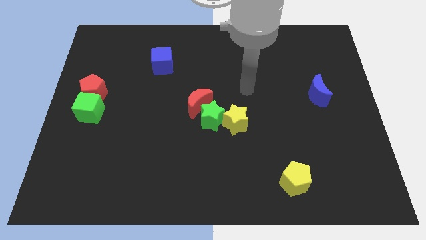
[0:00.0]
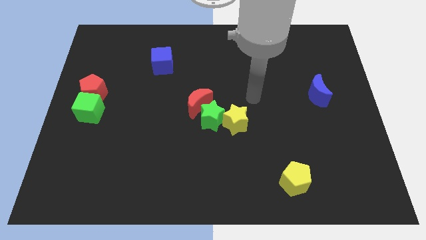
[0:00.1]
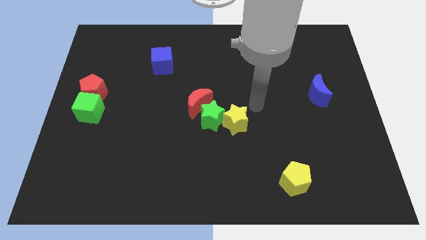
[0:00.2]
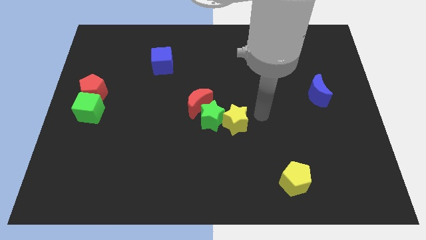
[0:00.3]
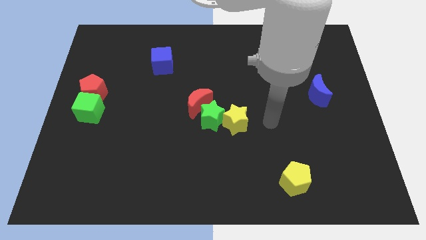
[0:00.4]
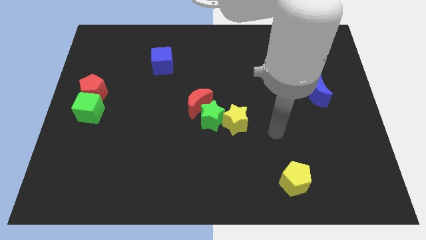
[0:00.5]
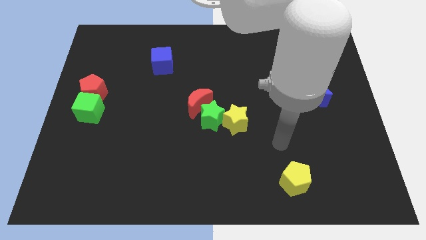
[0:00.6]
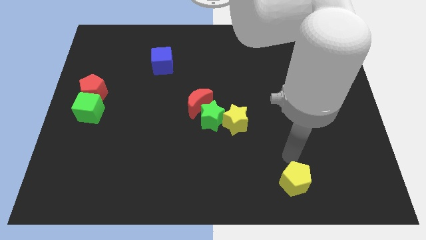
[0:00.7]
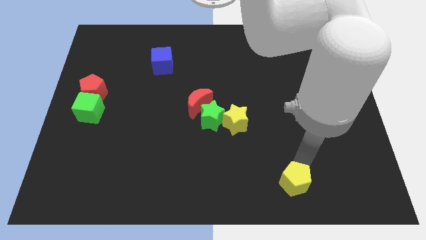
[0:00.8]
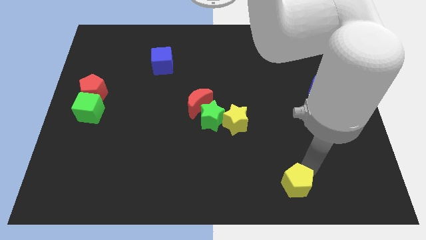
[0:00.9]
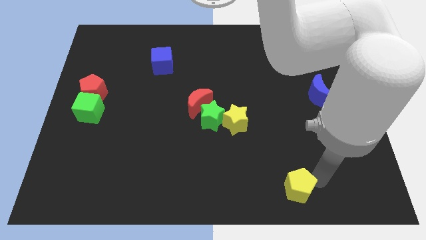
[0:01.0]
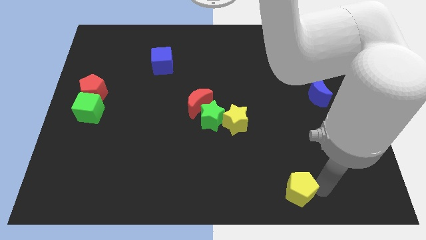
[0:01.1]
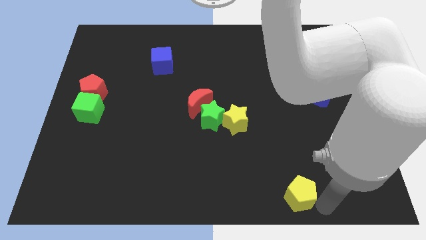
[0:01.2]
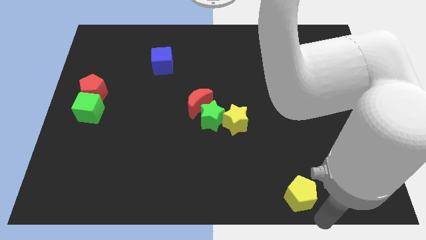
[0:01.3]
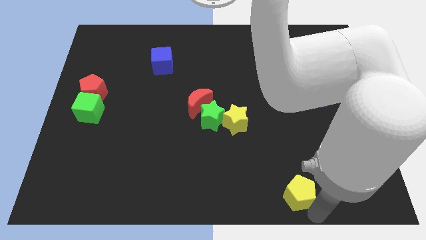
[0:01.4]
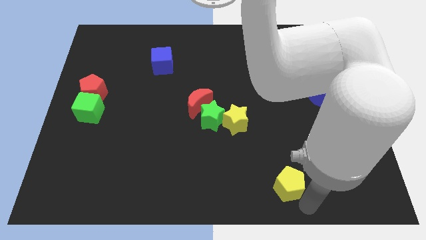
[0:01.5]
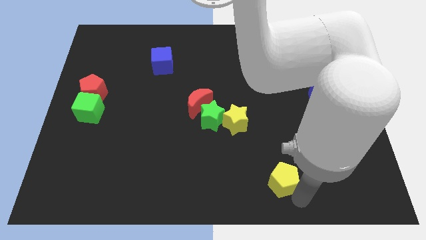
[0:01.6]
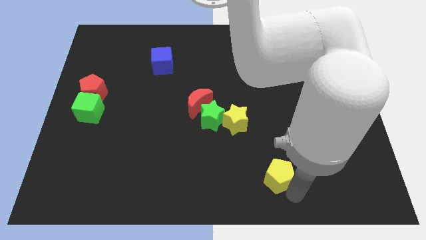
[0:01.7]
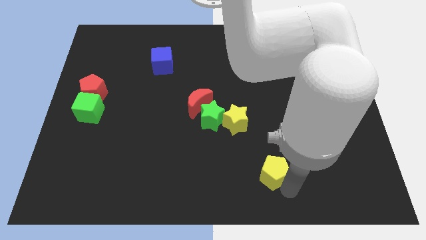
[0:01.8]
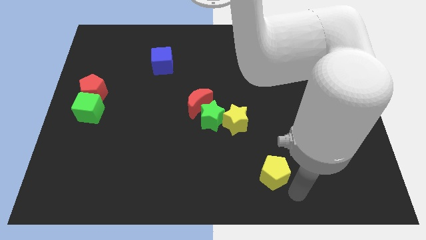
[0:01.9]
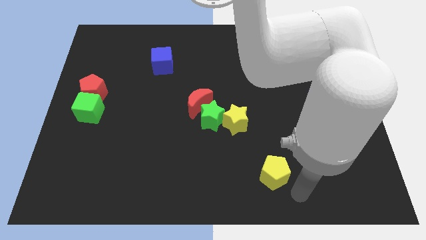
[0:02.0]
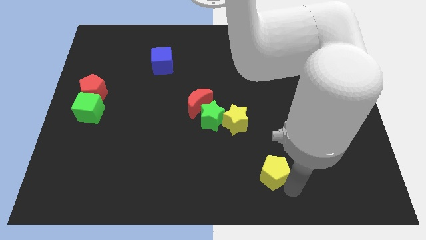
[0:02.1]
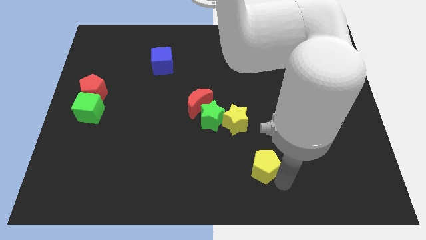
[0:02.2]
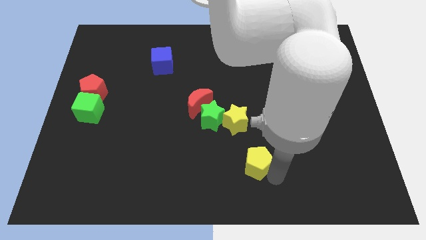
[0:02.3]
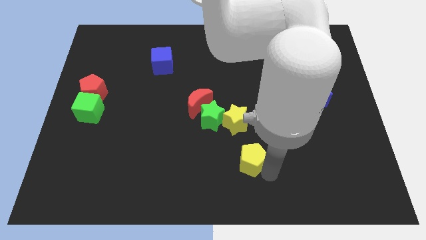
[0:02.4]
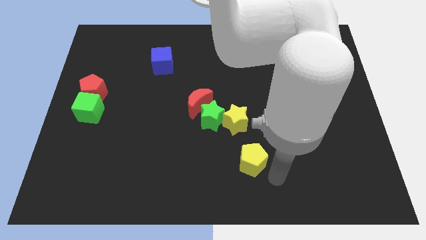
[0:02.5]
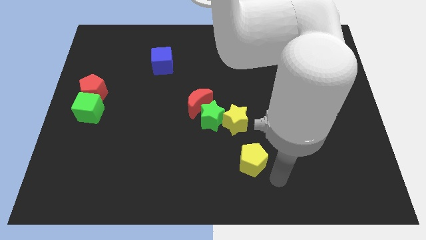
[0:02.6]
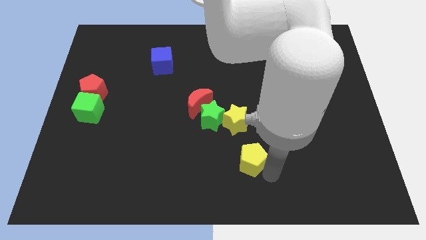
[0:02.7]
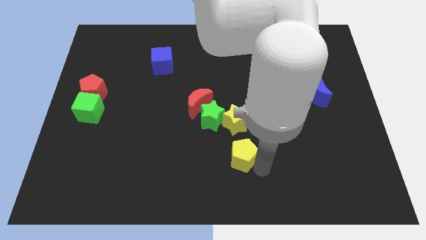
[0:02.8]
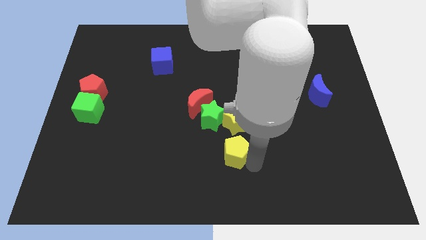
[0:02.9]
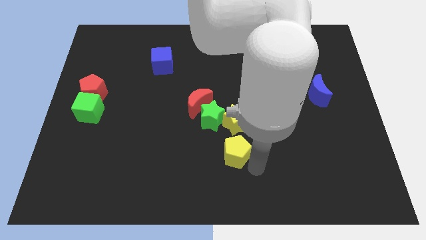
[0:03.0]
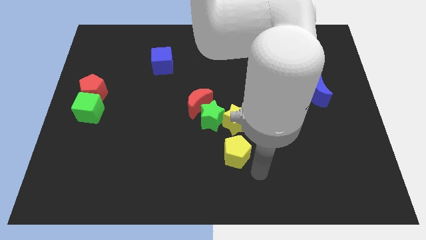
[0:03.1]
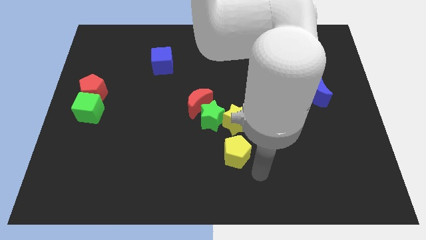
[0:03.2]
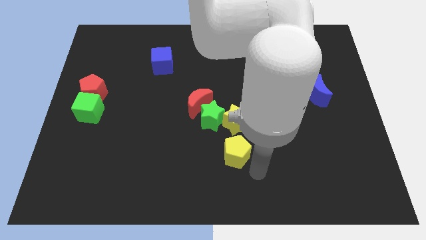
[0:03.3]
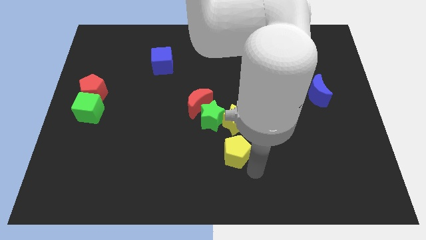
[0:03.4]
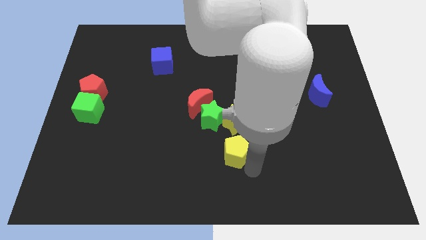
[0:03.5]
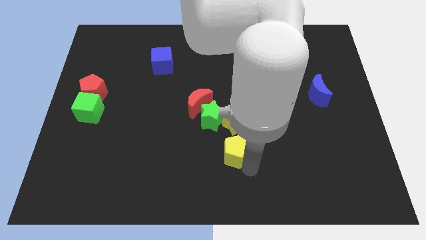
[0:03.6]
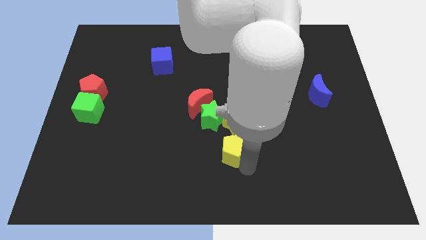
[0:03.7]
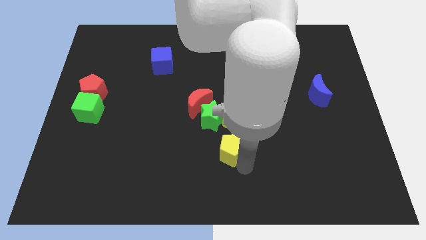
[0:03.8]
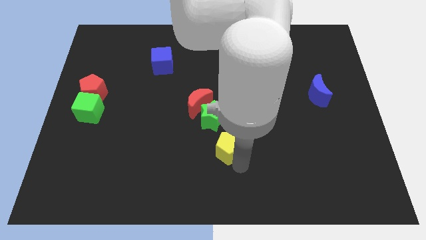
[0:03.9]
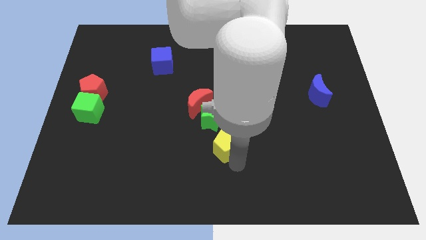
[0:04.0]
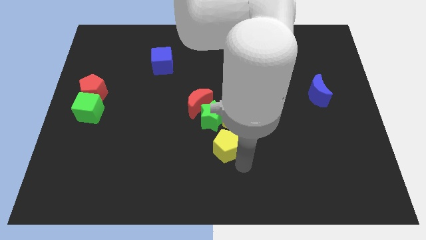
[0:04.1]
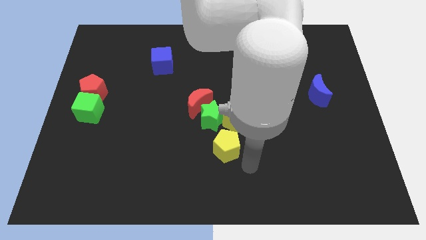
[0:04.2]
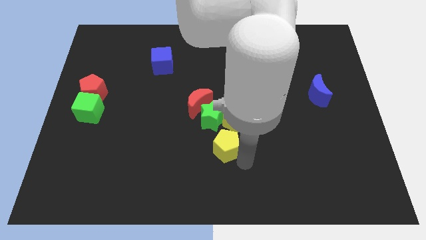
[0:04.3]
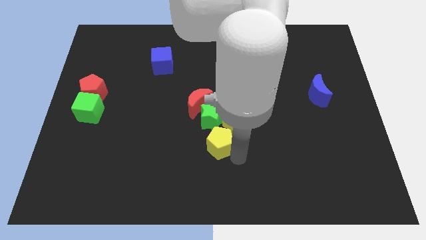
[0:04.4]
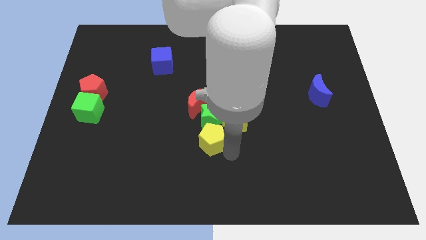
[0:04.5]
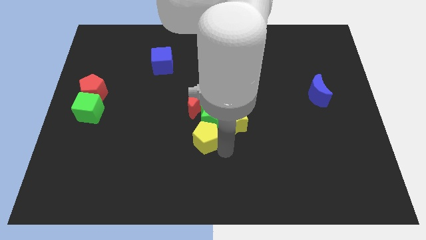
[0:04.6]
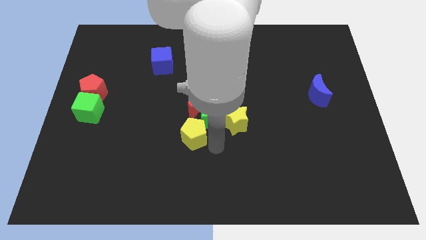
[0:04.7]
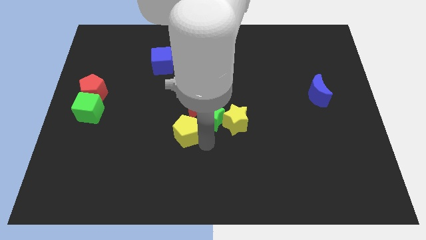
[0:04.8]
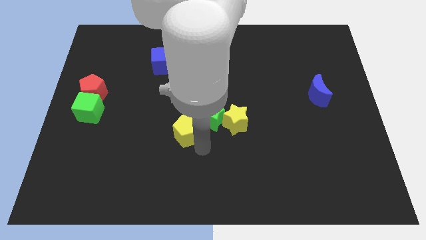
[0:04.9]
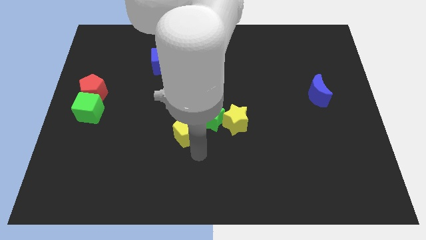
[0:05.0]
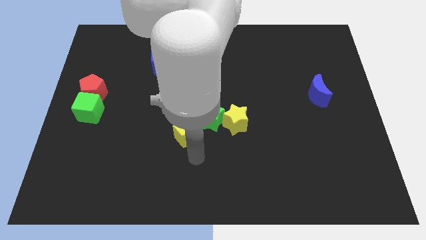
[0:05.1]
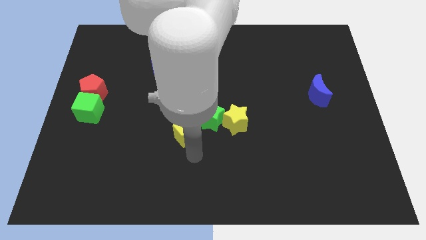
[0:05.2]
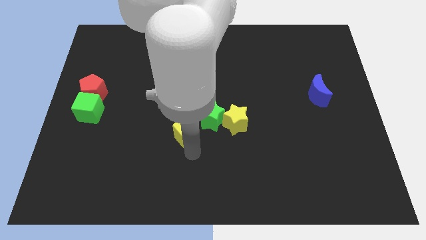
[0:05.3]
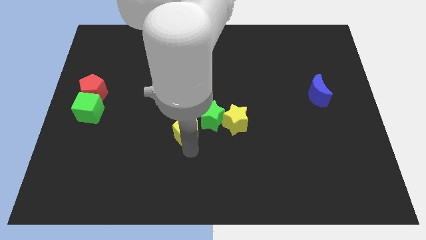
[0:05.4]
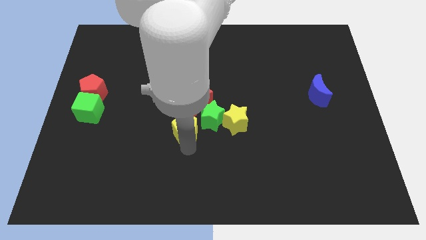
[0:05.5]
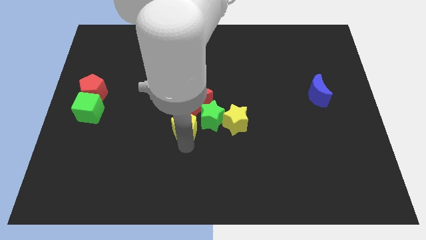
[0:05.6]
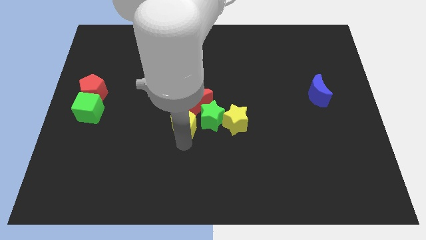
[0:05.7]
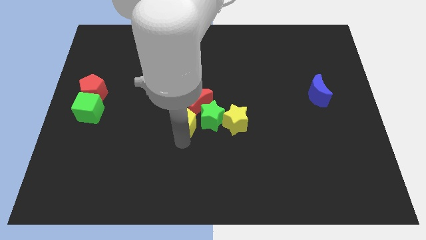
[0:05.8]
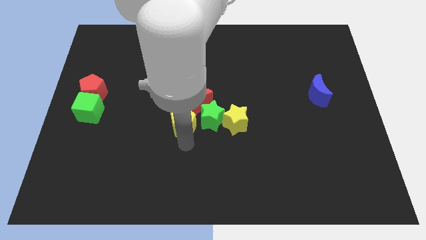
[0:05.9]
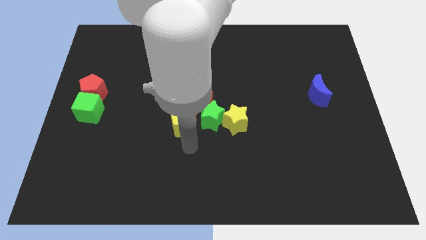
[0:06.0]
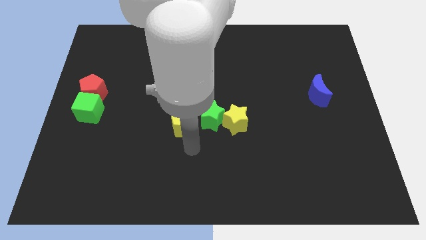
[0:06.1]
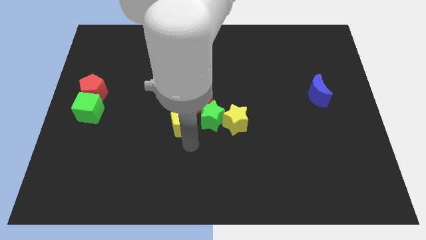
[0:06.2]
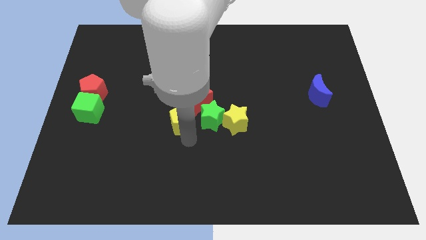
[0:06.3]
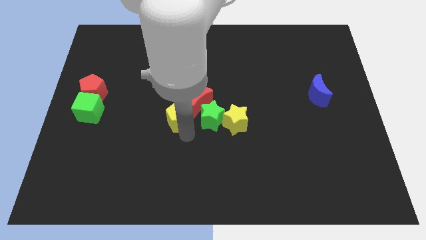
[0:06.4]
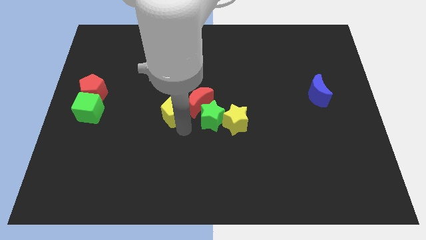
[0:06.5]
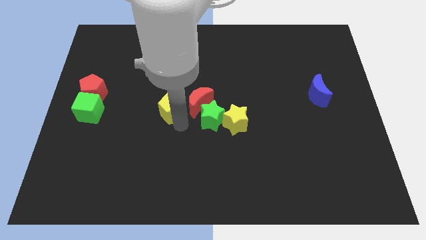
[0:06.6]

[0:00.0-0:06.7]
put the yellow pentagon diagonally up and to the left of the green star
